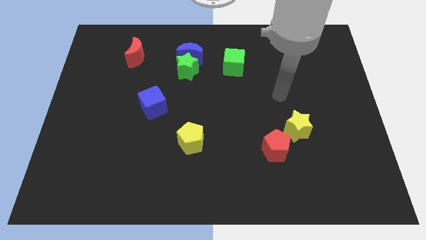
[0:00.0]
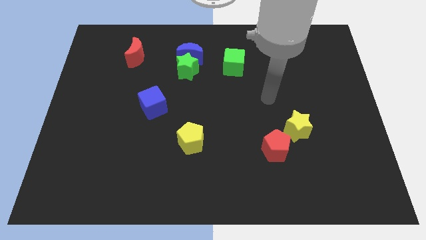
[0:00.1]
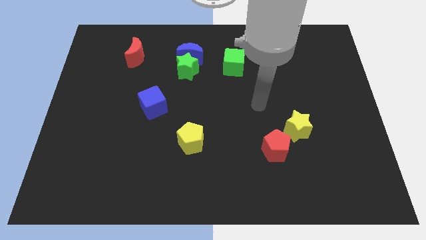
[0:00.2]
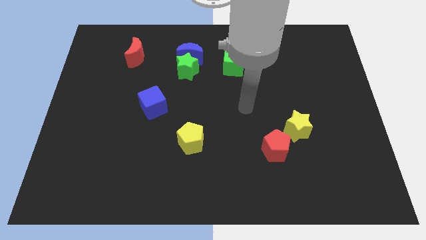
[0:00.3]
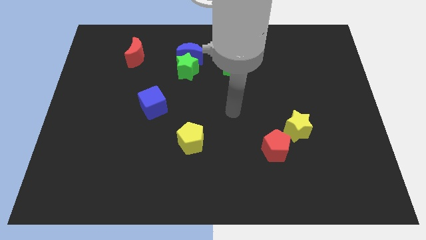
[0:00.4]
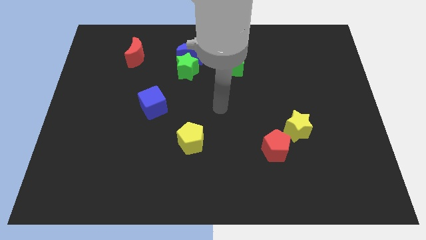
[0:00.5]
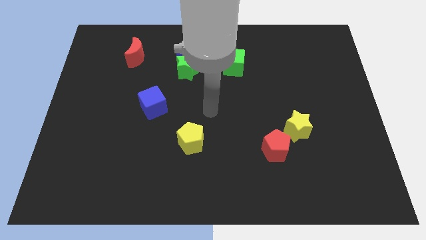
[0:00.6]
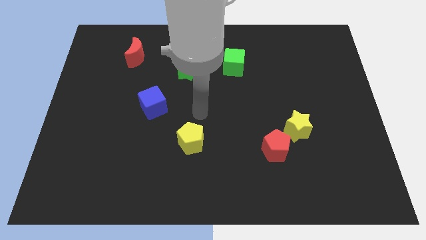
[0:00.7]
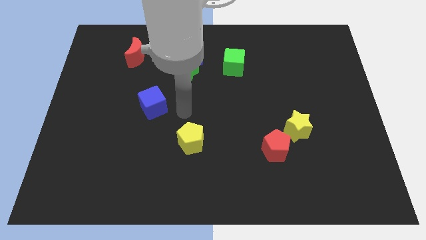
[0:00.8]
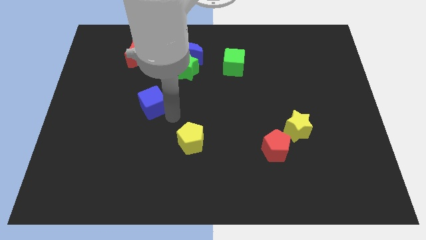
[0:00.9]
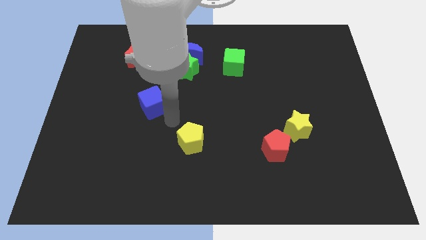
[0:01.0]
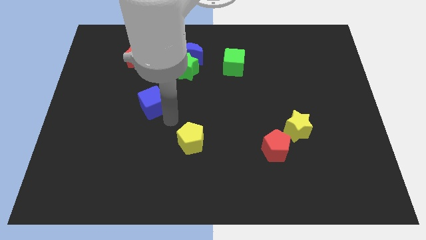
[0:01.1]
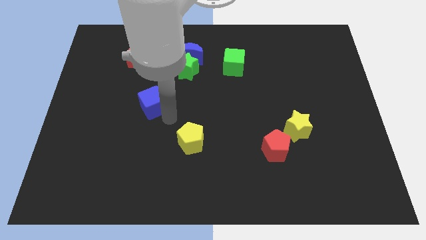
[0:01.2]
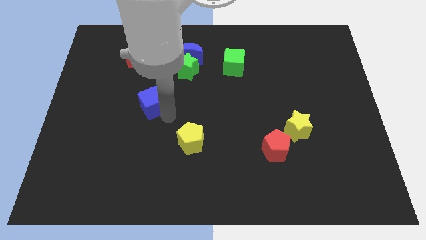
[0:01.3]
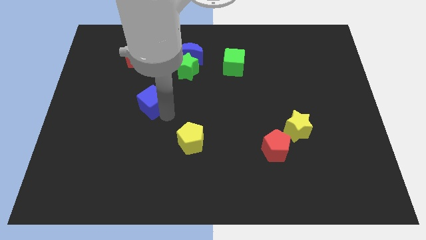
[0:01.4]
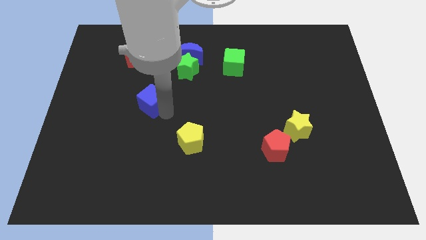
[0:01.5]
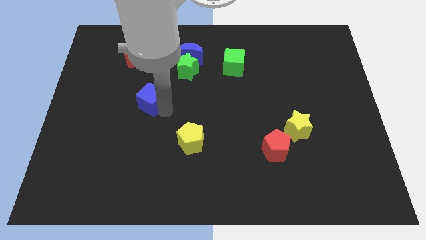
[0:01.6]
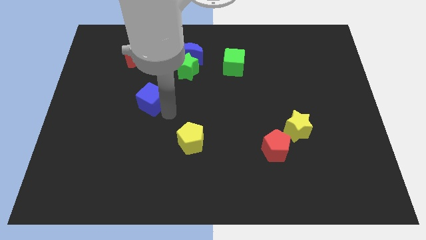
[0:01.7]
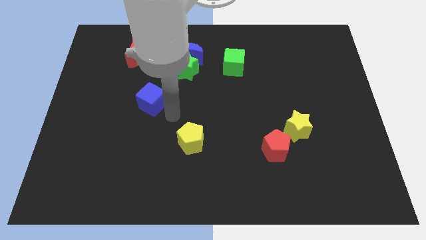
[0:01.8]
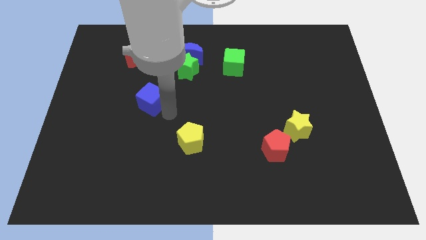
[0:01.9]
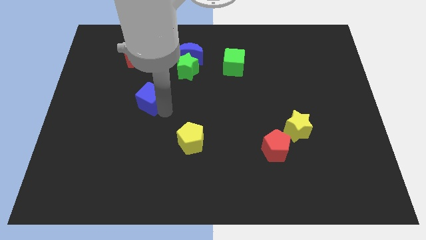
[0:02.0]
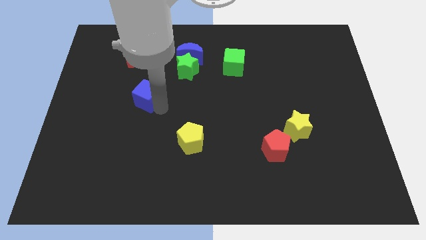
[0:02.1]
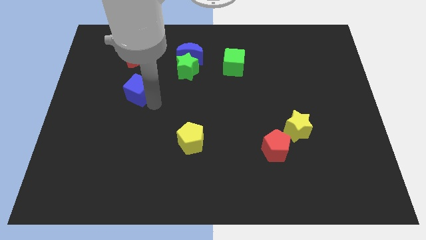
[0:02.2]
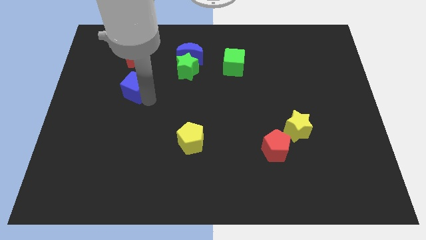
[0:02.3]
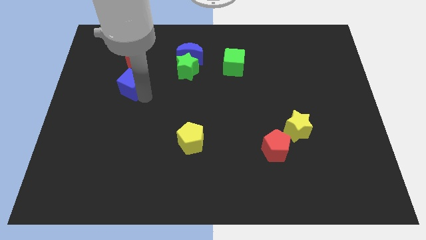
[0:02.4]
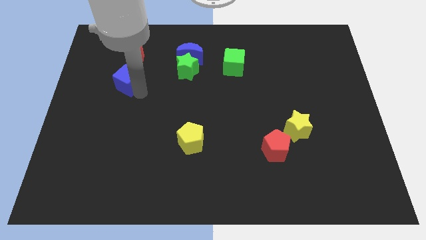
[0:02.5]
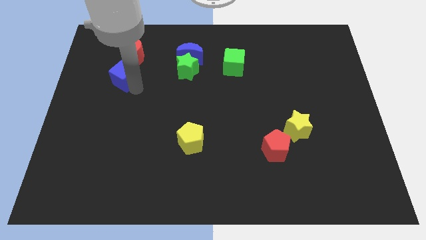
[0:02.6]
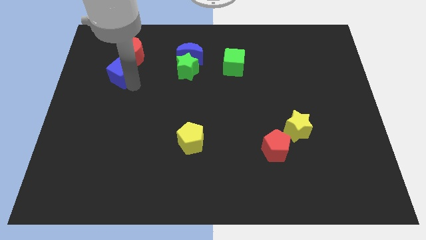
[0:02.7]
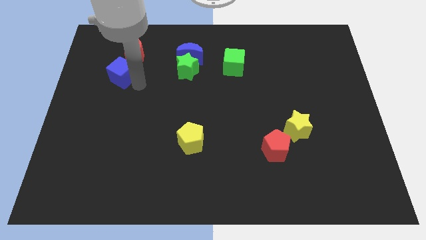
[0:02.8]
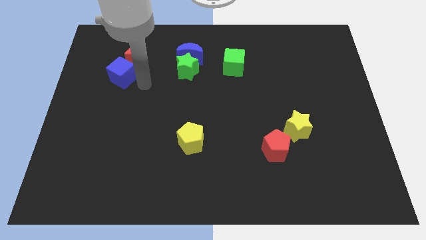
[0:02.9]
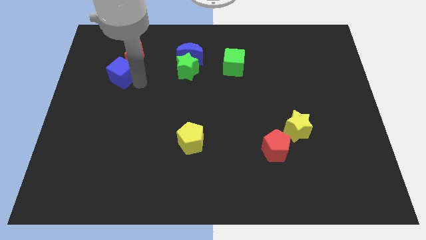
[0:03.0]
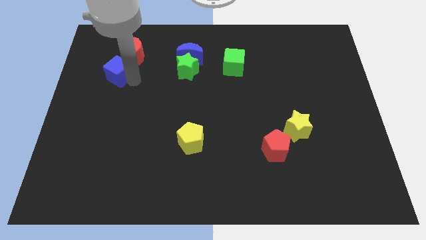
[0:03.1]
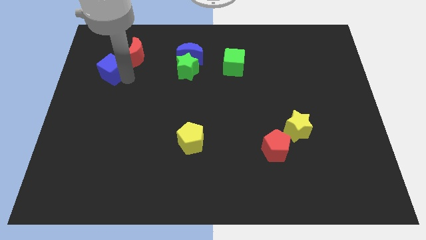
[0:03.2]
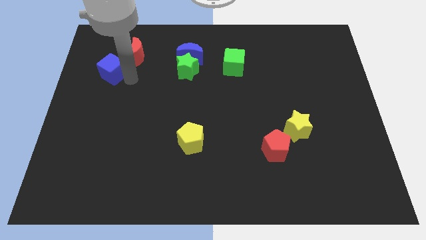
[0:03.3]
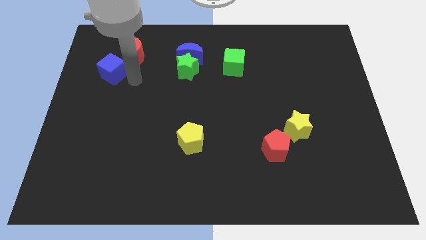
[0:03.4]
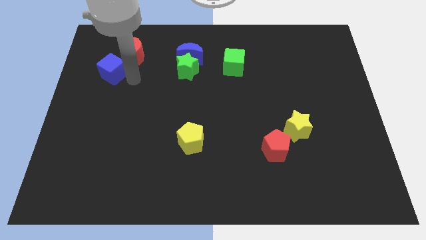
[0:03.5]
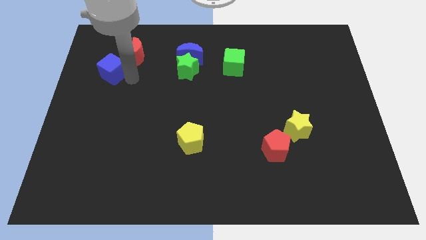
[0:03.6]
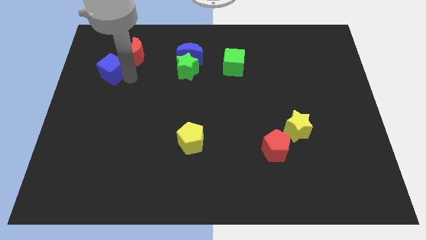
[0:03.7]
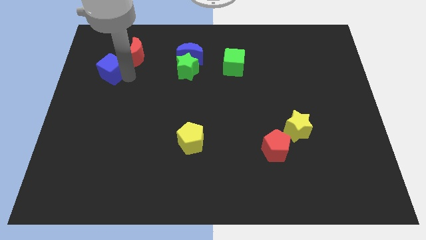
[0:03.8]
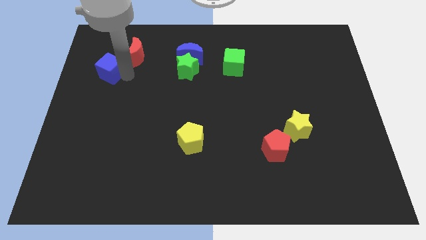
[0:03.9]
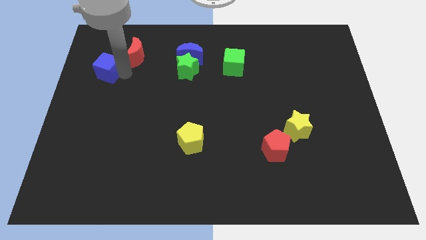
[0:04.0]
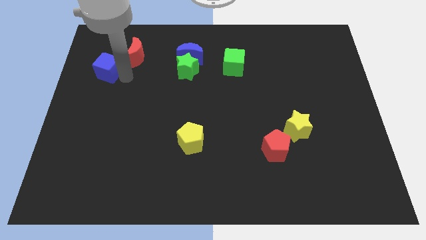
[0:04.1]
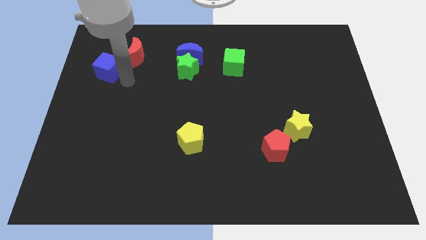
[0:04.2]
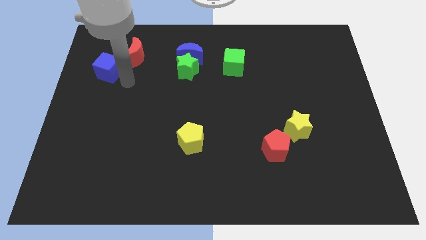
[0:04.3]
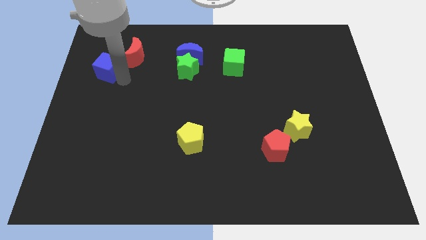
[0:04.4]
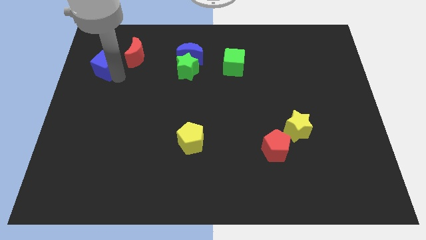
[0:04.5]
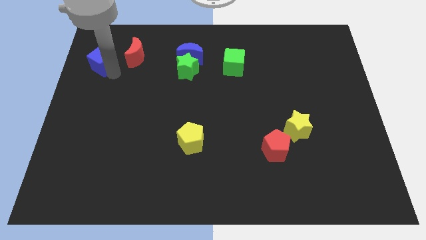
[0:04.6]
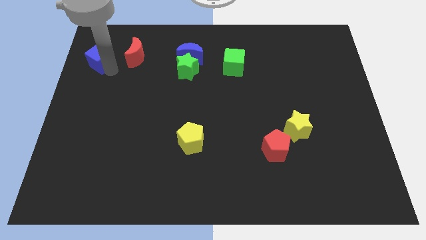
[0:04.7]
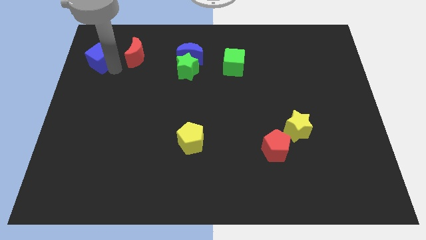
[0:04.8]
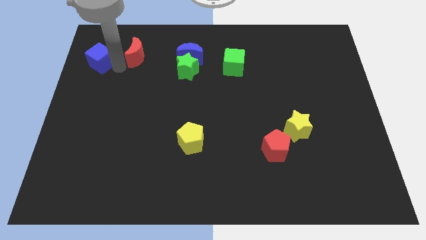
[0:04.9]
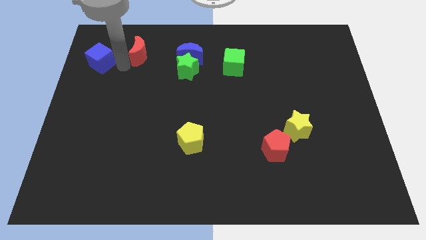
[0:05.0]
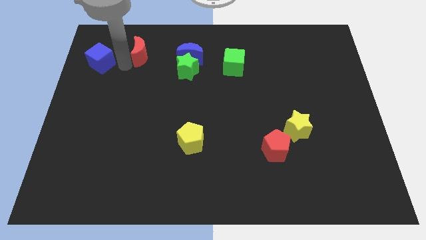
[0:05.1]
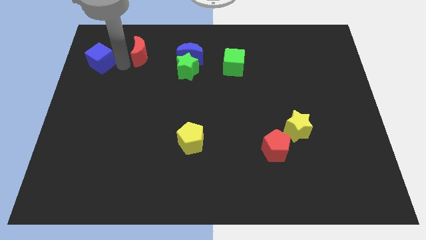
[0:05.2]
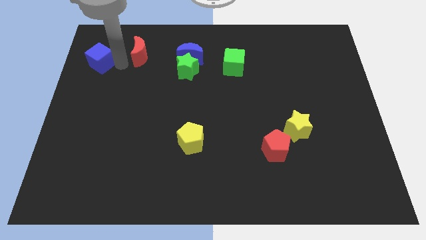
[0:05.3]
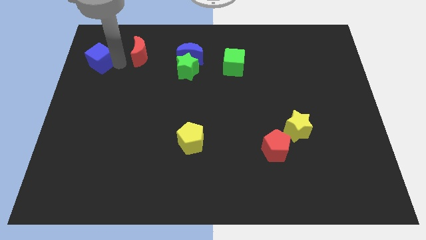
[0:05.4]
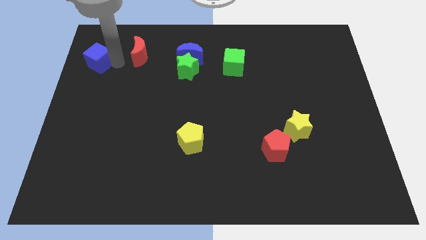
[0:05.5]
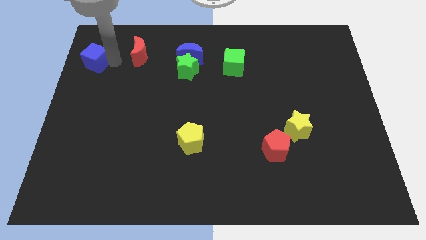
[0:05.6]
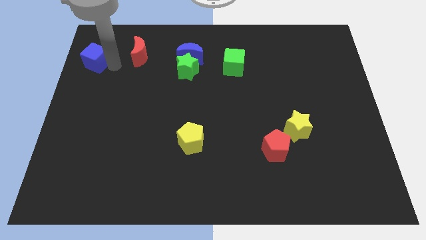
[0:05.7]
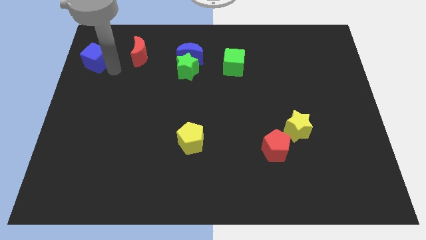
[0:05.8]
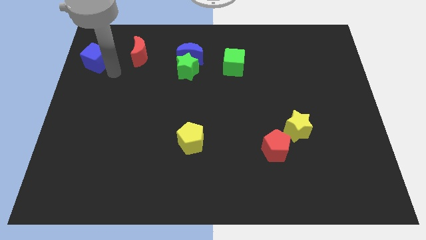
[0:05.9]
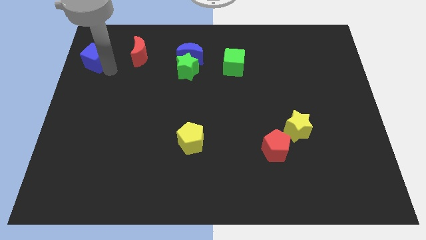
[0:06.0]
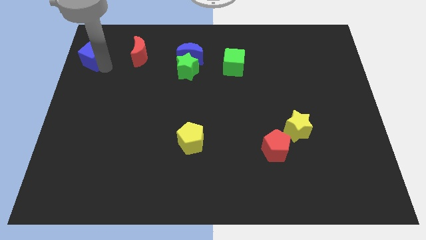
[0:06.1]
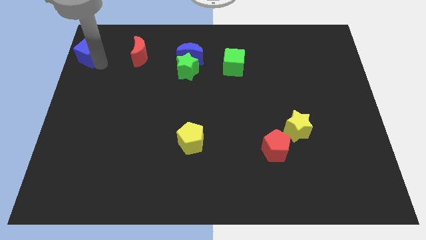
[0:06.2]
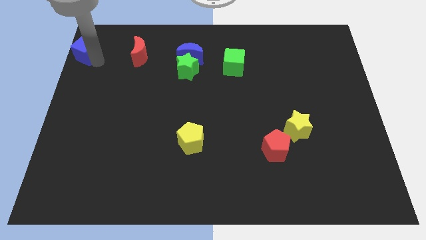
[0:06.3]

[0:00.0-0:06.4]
slide the blue cube to the upper left corner
